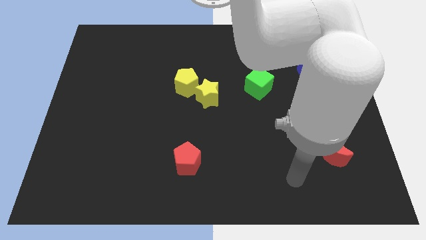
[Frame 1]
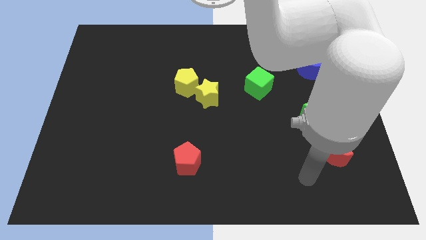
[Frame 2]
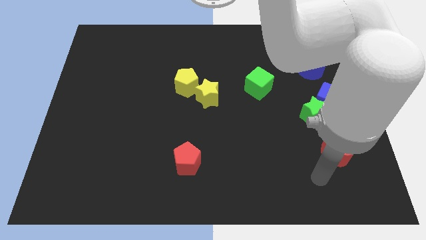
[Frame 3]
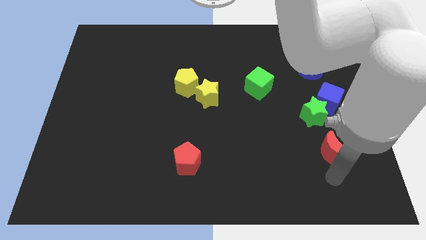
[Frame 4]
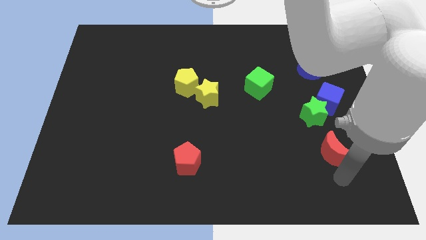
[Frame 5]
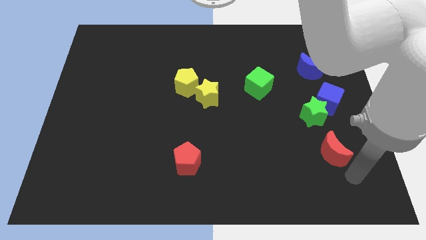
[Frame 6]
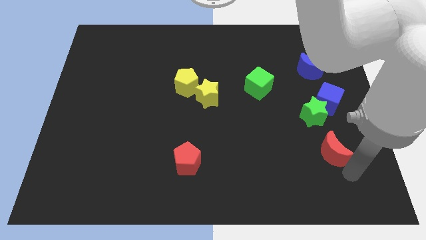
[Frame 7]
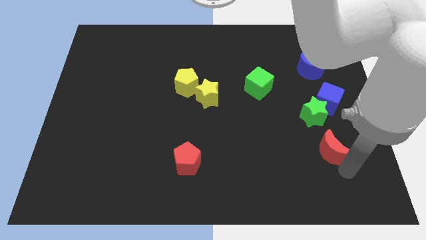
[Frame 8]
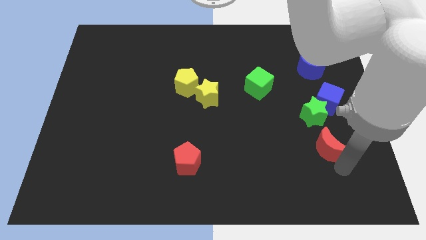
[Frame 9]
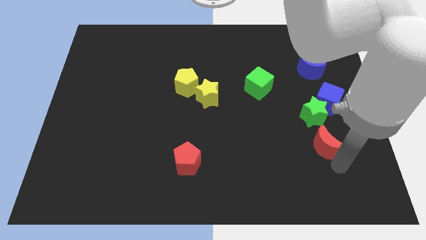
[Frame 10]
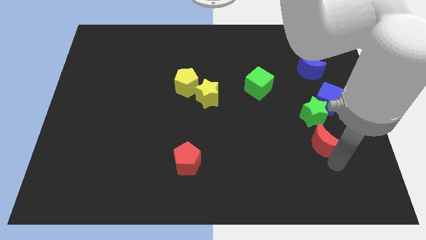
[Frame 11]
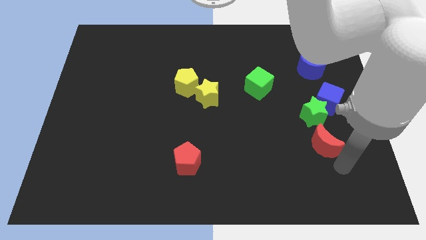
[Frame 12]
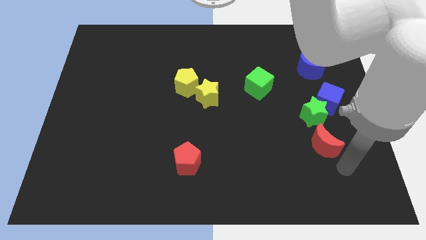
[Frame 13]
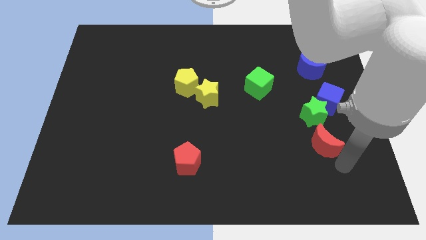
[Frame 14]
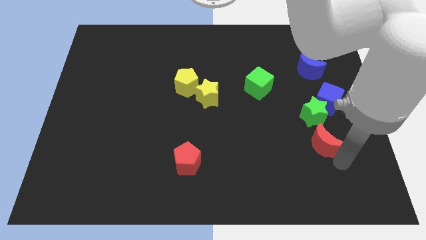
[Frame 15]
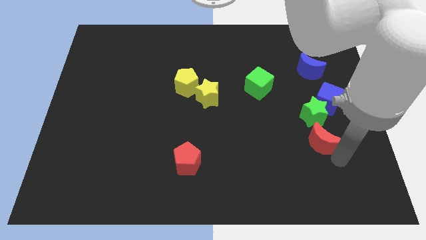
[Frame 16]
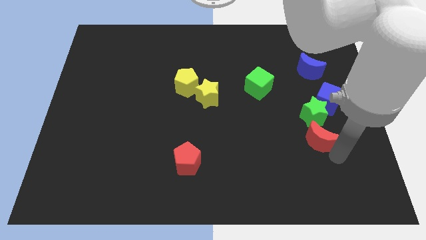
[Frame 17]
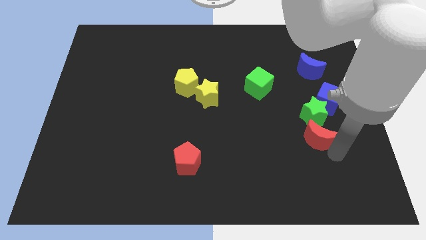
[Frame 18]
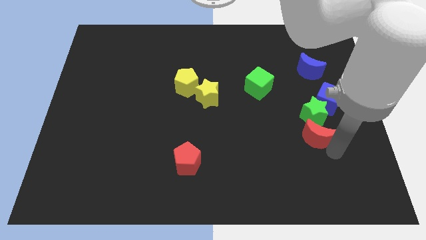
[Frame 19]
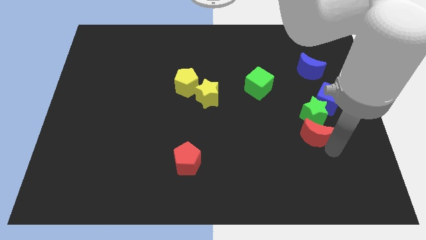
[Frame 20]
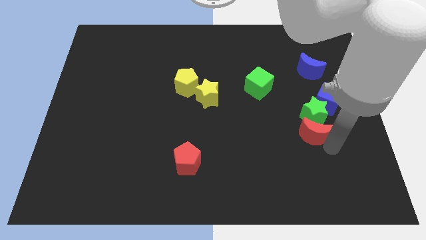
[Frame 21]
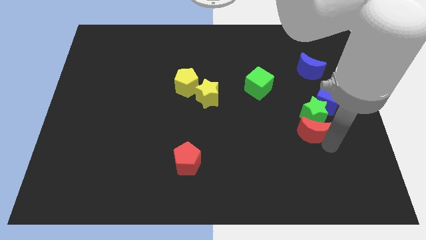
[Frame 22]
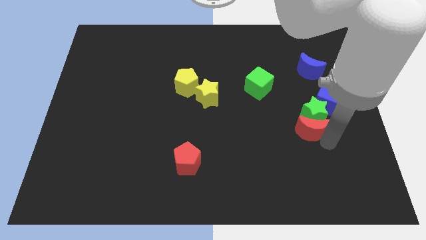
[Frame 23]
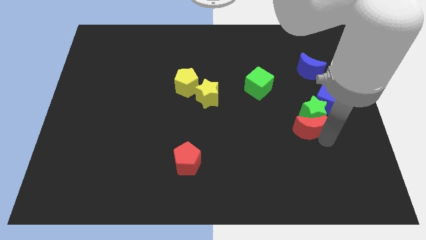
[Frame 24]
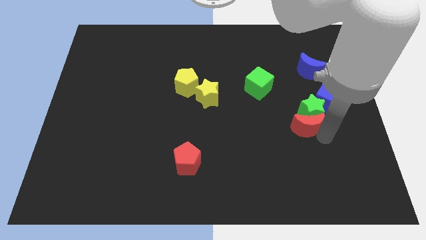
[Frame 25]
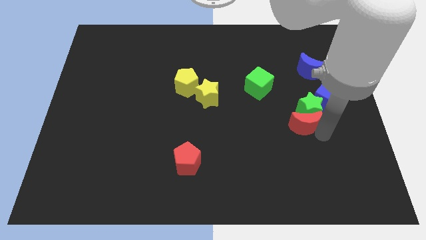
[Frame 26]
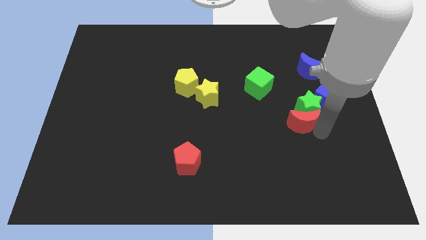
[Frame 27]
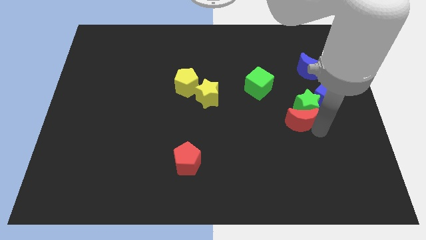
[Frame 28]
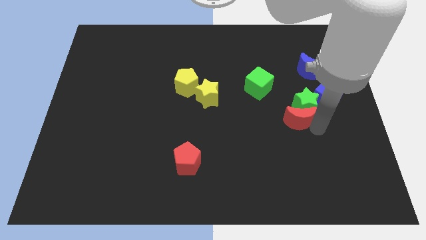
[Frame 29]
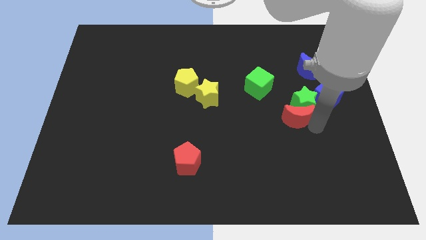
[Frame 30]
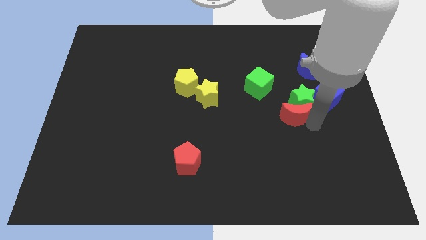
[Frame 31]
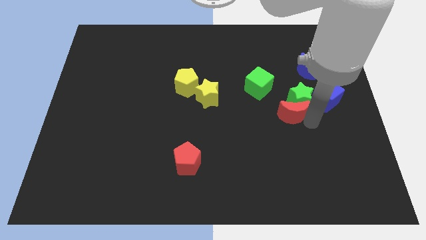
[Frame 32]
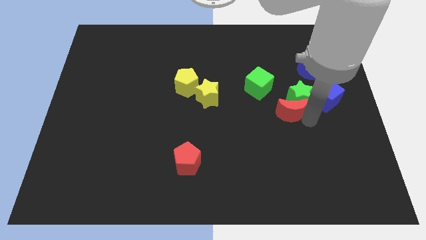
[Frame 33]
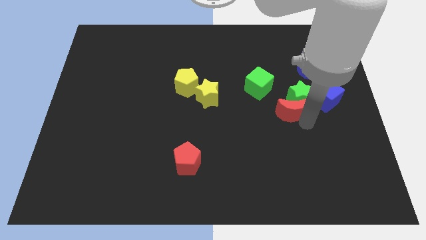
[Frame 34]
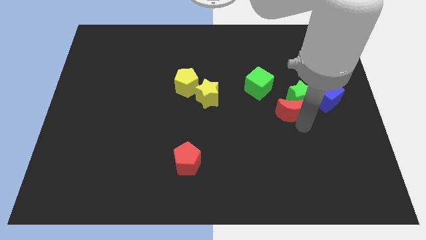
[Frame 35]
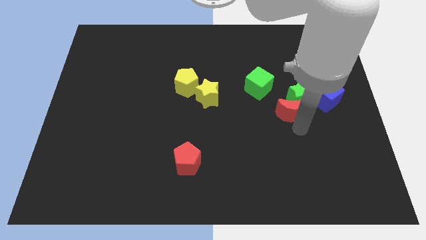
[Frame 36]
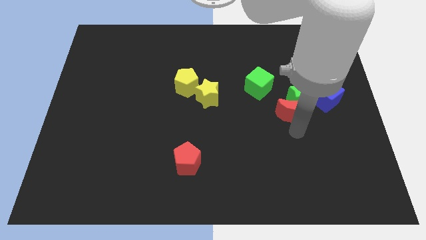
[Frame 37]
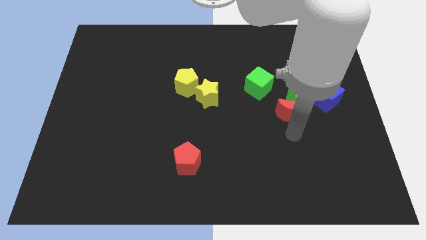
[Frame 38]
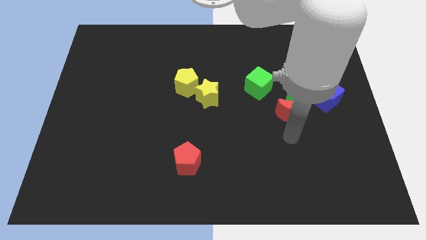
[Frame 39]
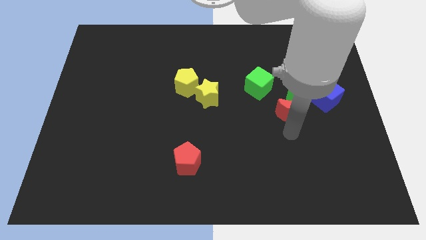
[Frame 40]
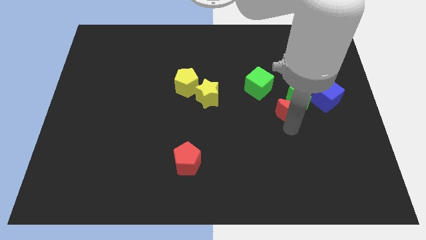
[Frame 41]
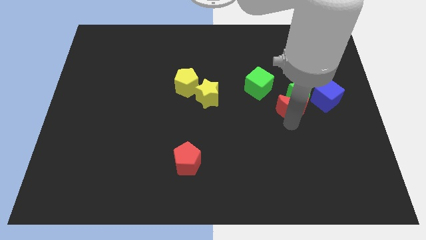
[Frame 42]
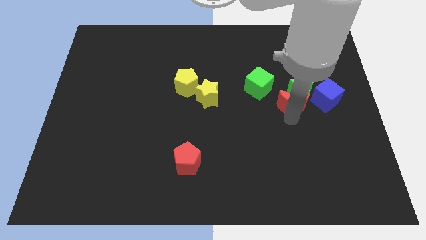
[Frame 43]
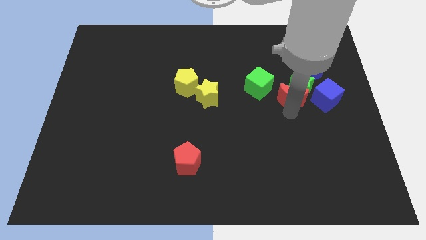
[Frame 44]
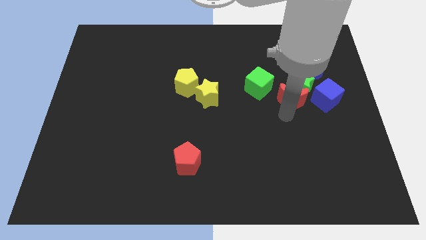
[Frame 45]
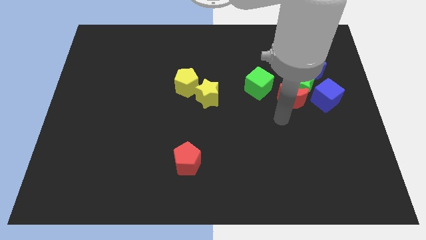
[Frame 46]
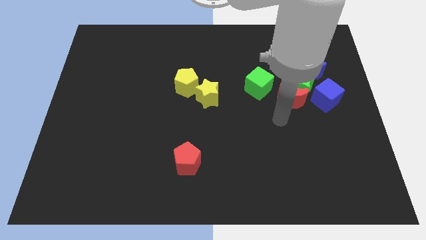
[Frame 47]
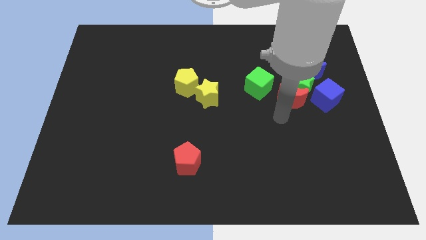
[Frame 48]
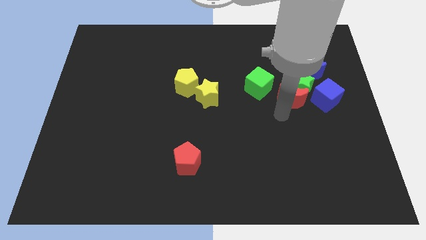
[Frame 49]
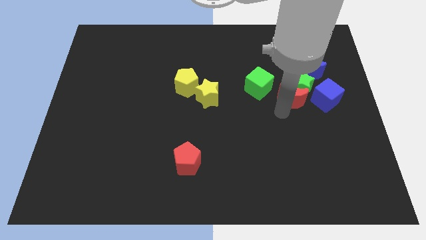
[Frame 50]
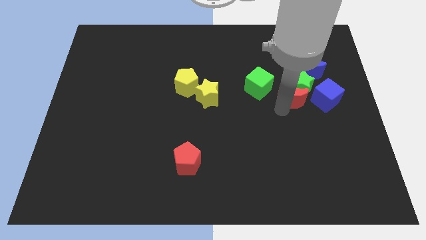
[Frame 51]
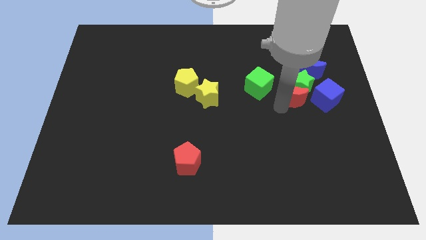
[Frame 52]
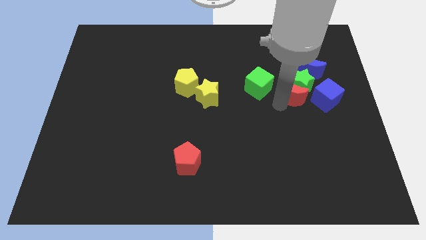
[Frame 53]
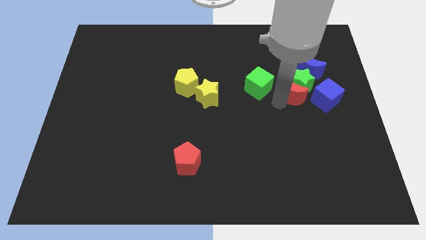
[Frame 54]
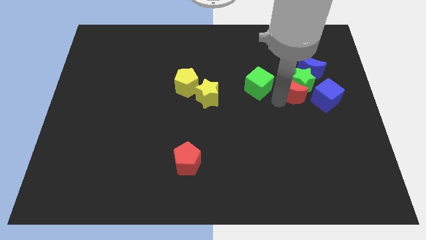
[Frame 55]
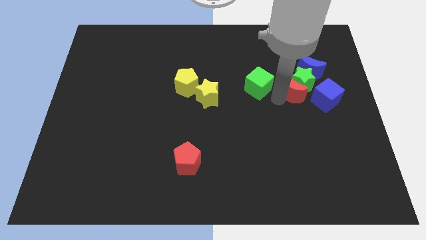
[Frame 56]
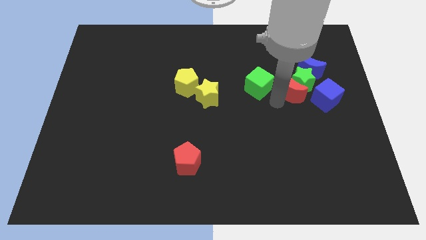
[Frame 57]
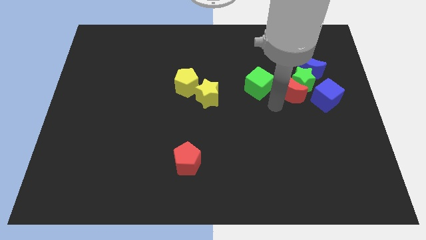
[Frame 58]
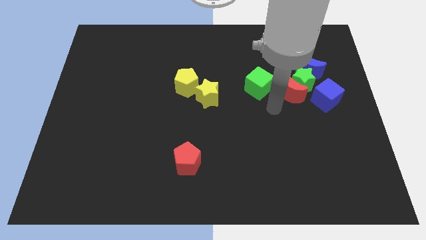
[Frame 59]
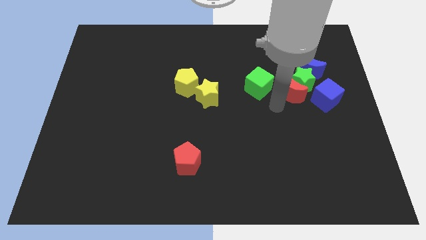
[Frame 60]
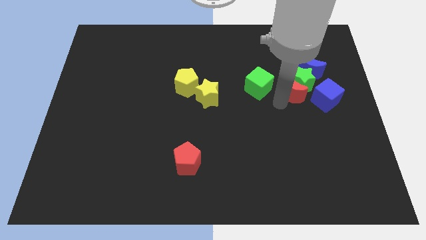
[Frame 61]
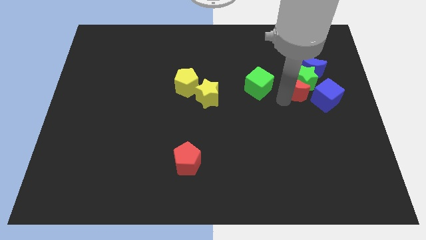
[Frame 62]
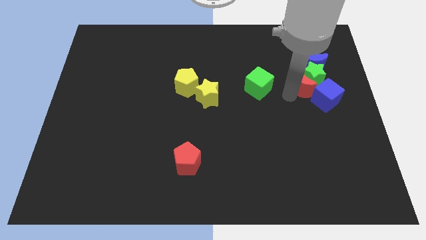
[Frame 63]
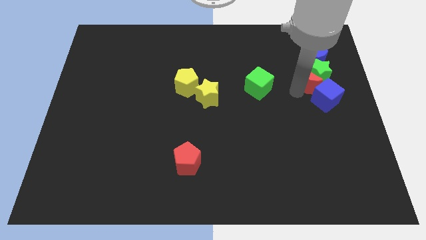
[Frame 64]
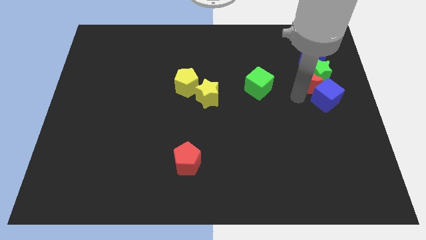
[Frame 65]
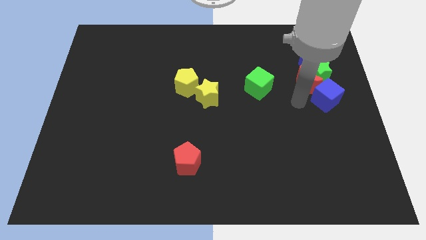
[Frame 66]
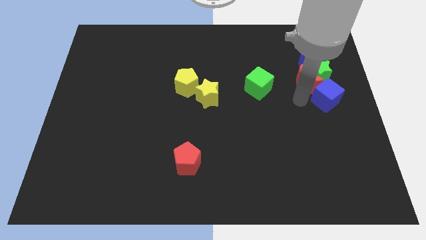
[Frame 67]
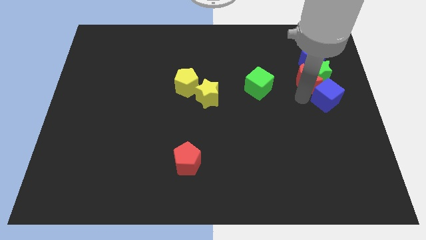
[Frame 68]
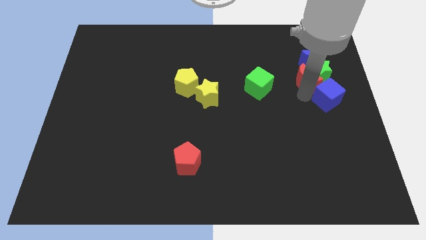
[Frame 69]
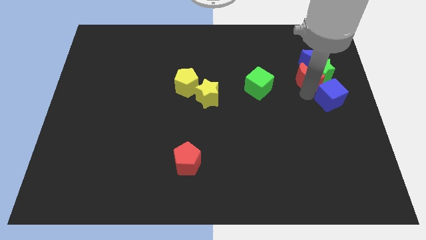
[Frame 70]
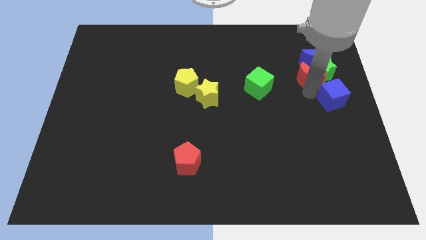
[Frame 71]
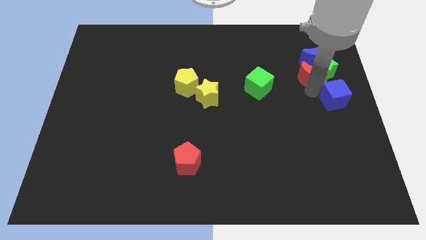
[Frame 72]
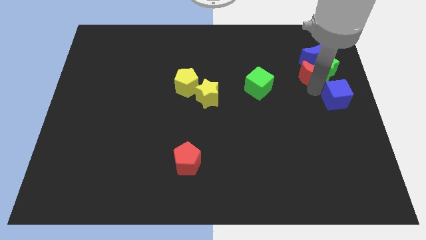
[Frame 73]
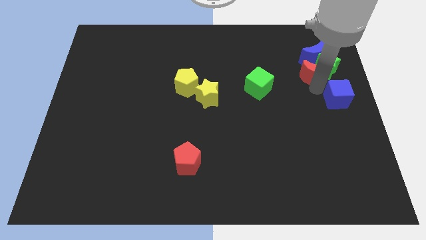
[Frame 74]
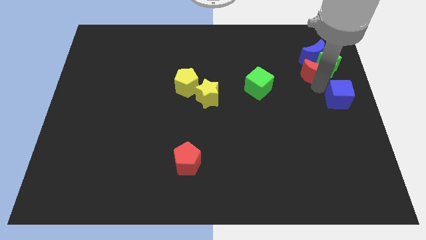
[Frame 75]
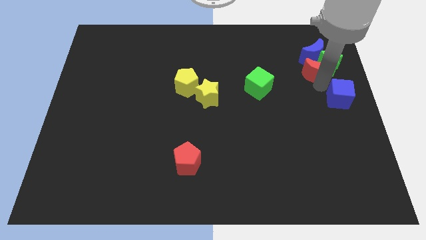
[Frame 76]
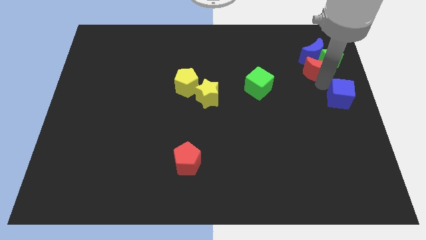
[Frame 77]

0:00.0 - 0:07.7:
put the red moon to the blue moon
